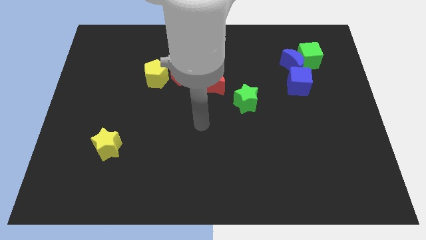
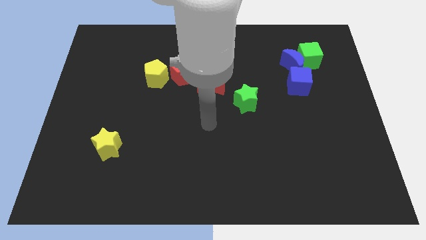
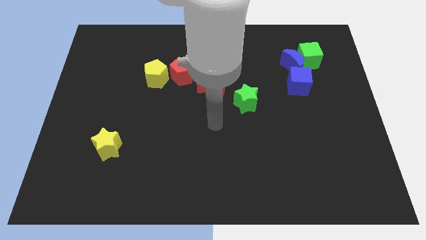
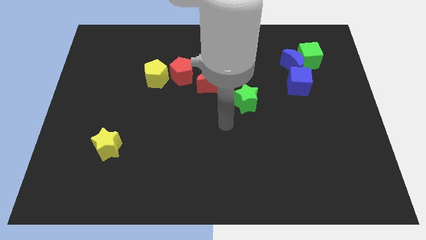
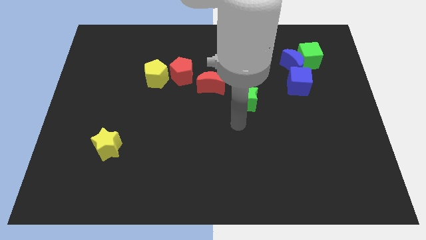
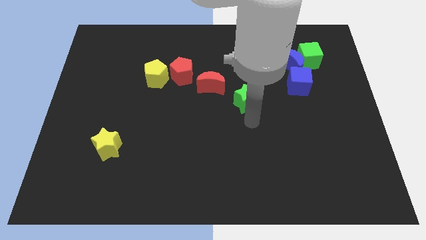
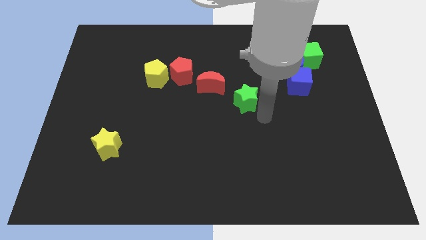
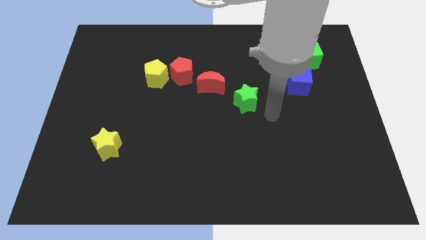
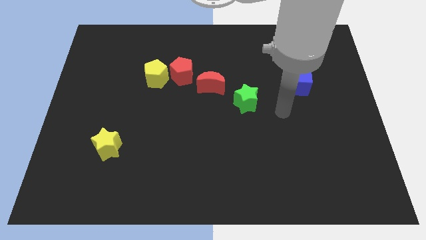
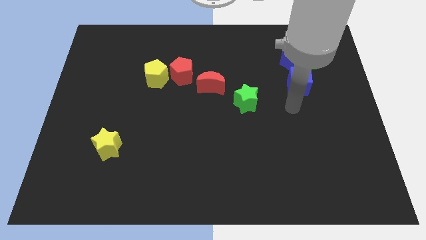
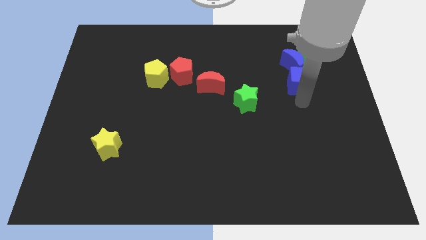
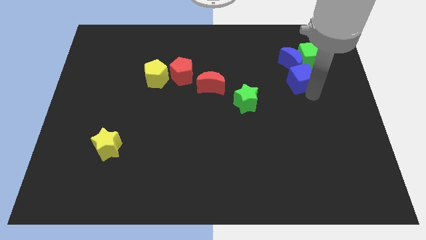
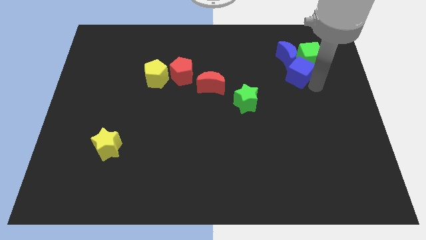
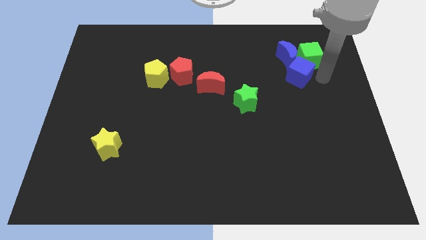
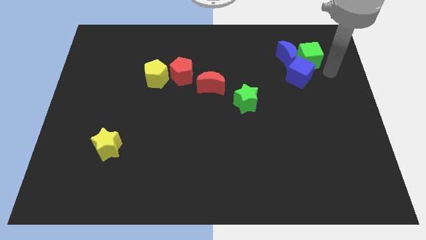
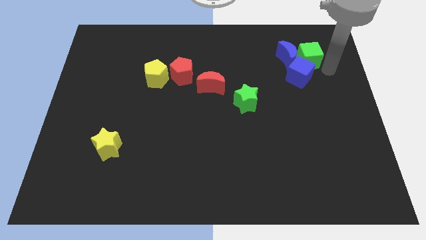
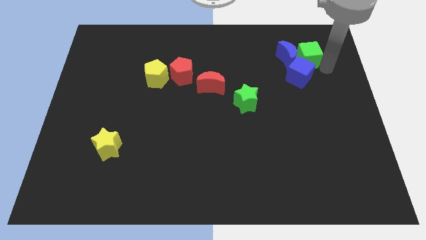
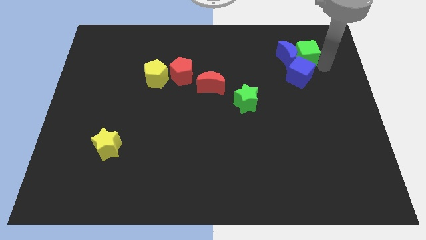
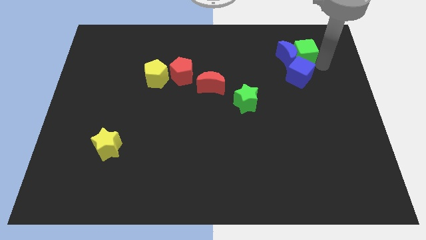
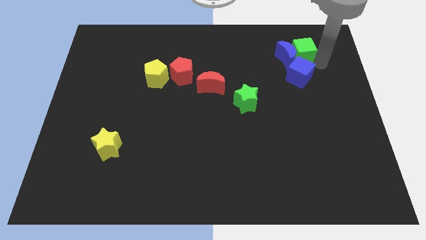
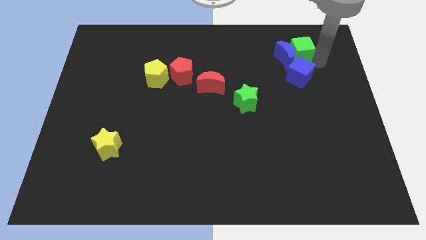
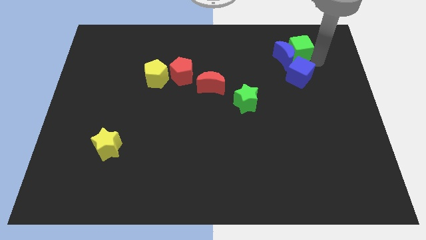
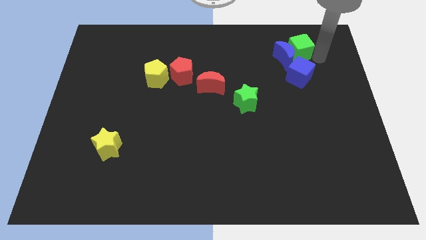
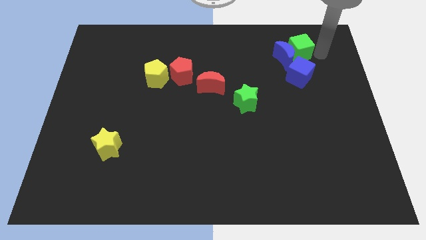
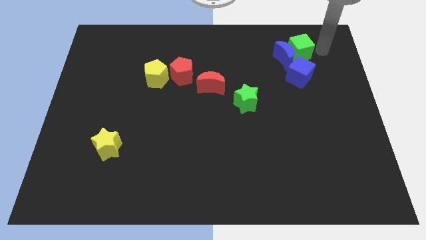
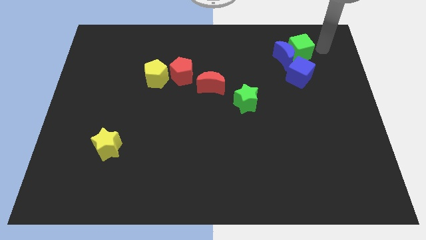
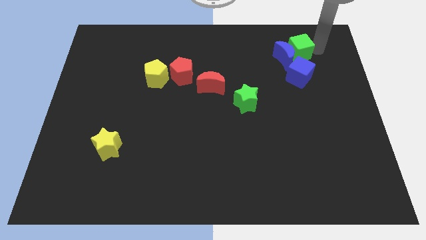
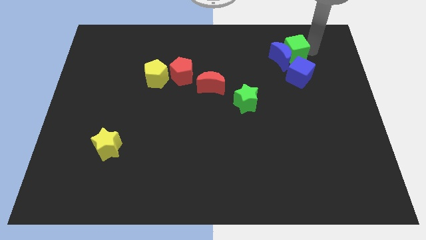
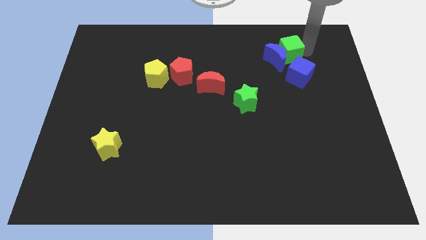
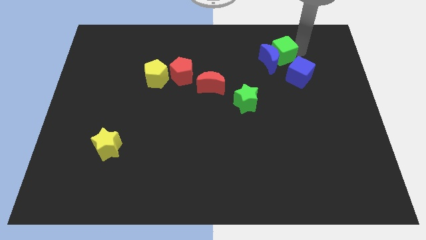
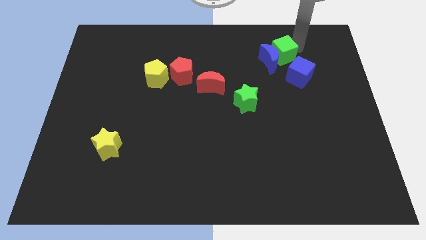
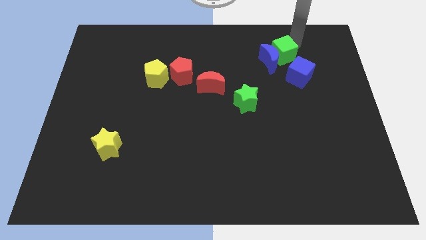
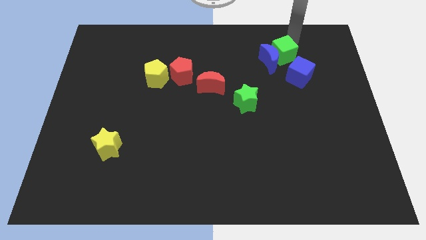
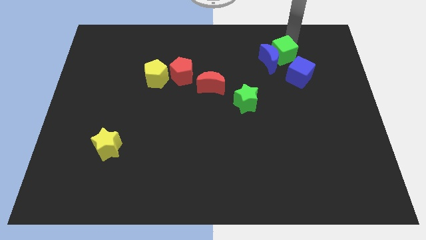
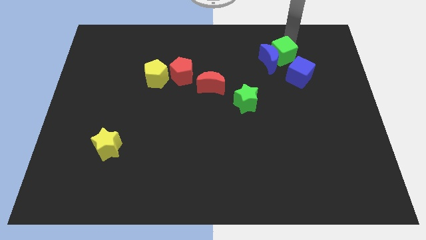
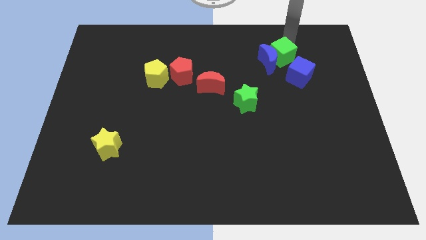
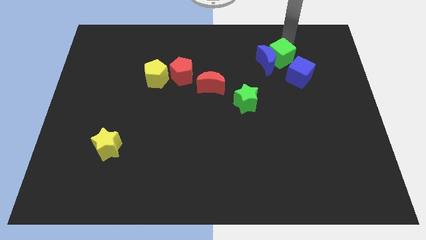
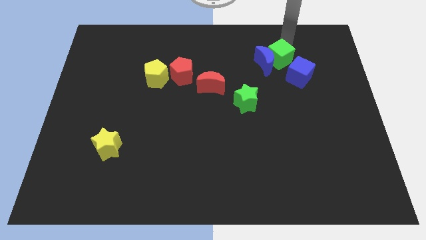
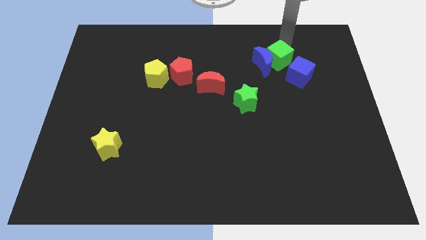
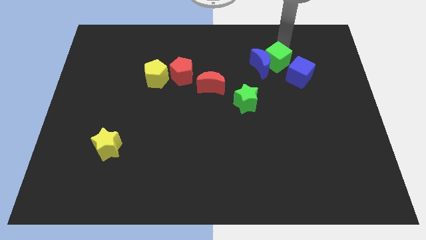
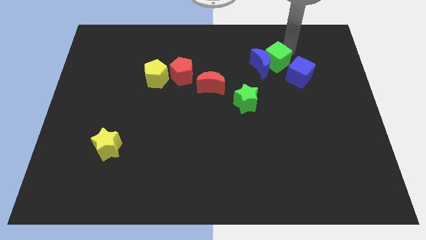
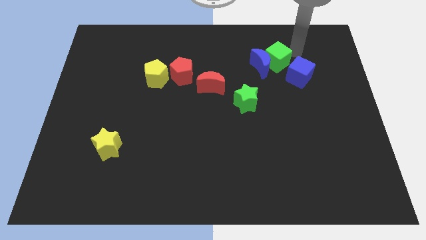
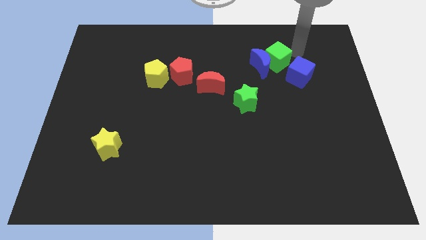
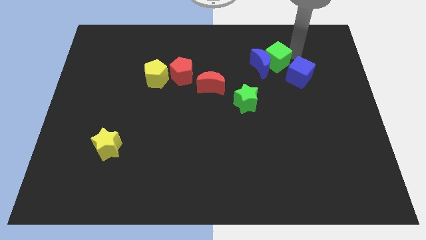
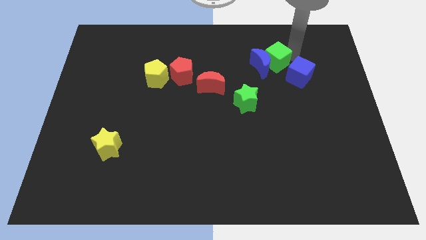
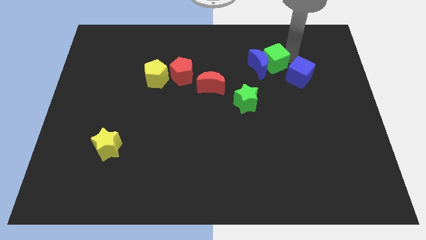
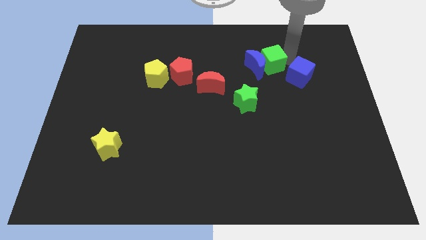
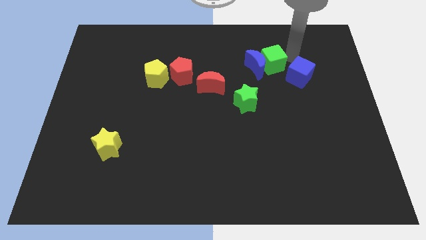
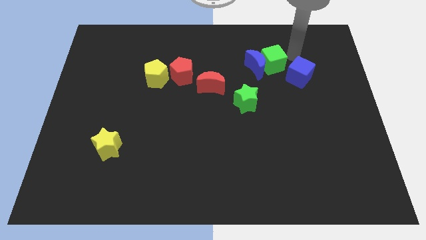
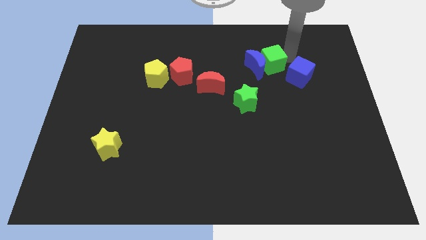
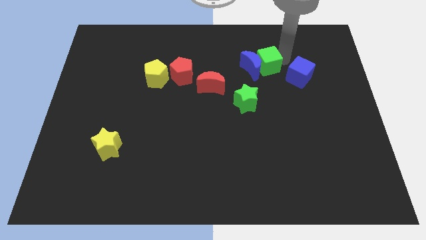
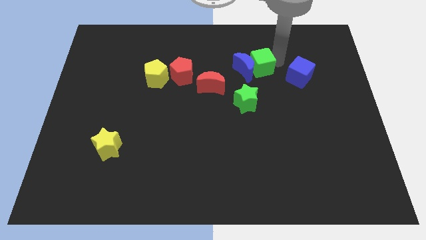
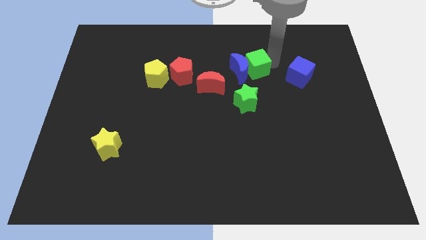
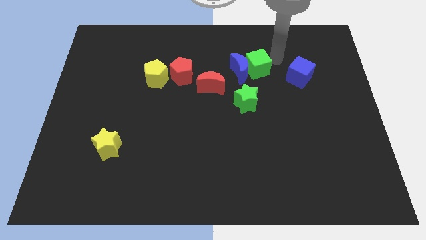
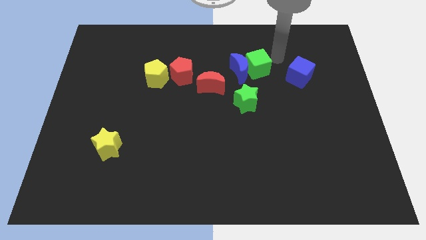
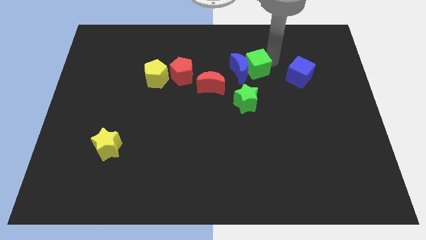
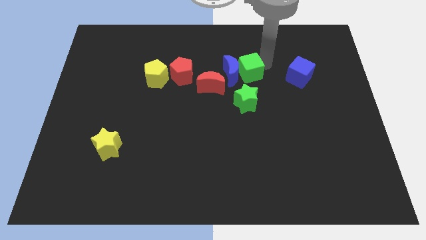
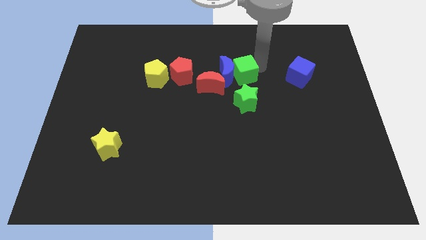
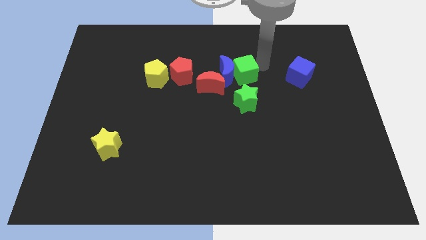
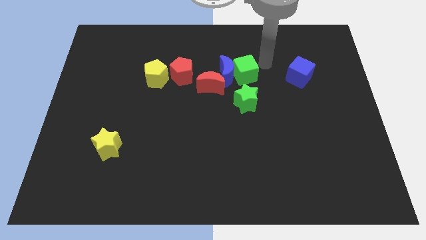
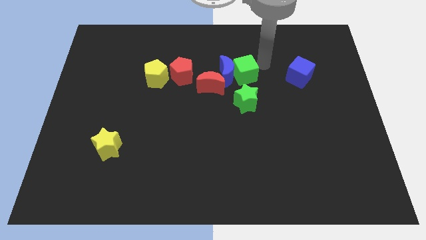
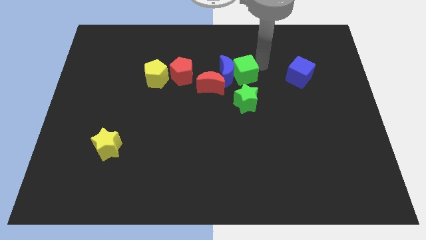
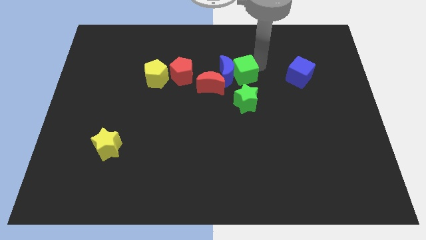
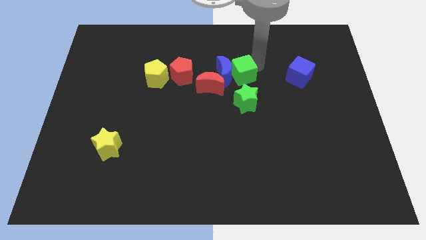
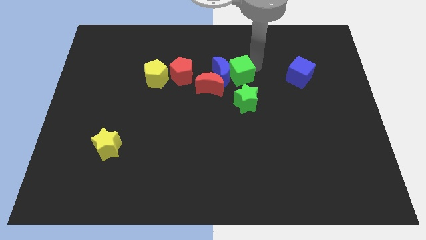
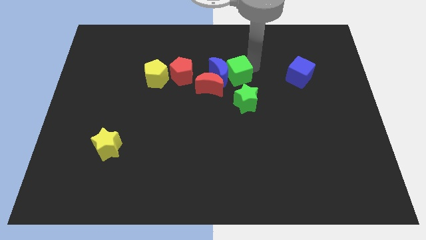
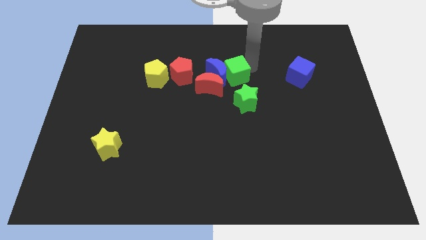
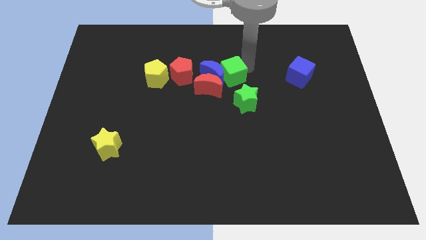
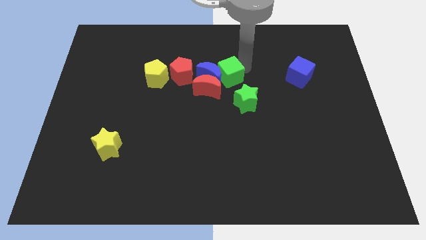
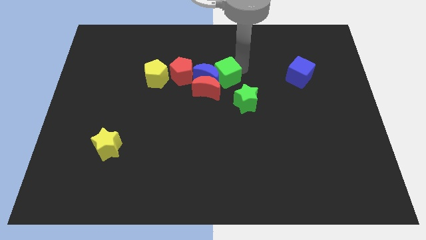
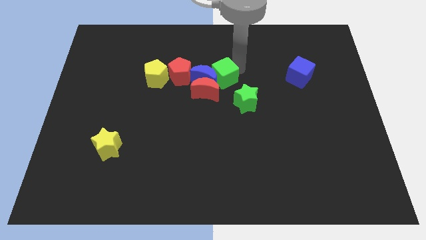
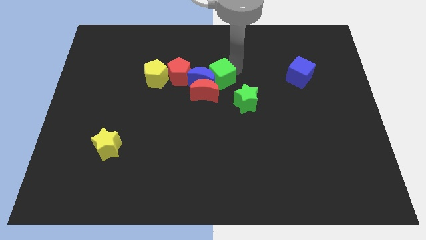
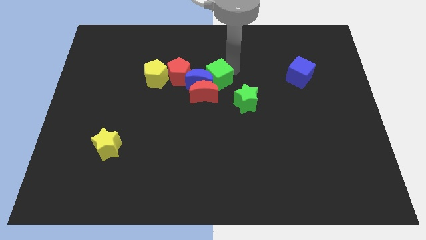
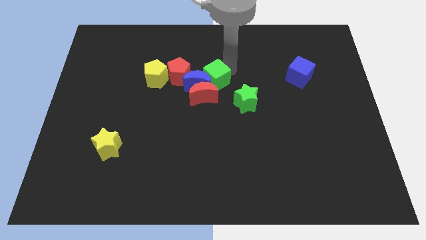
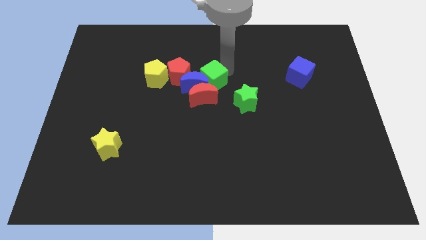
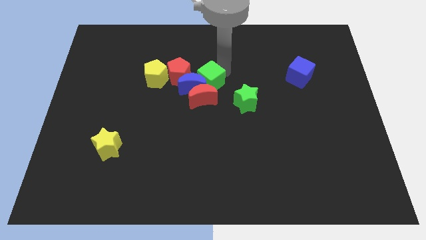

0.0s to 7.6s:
move the green cube close to the red moon

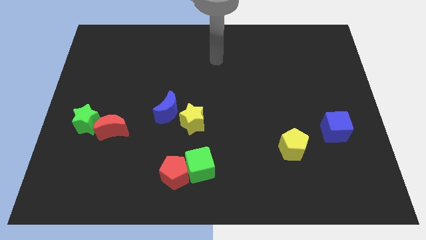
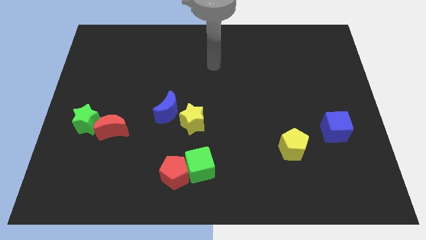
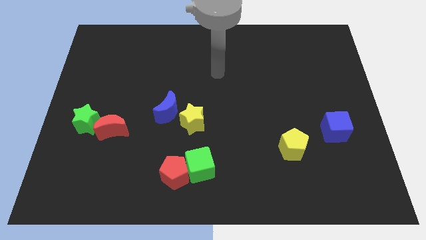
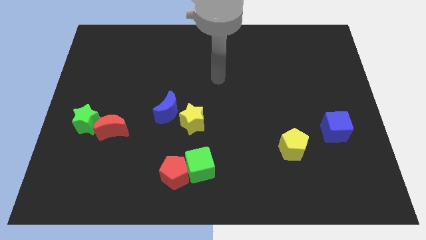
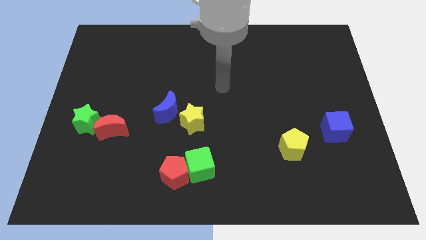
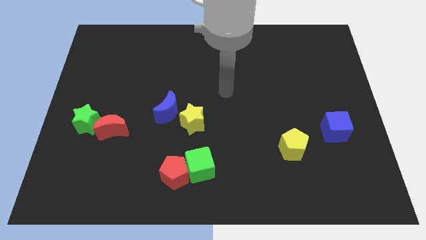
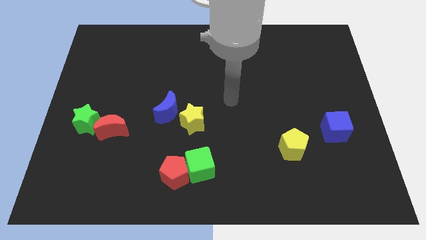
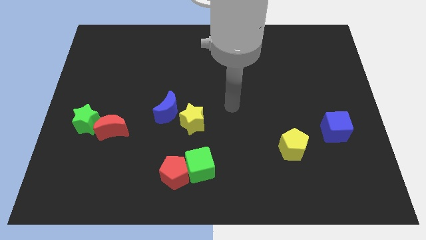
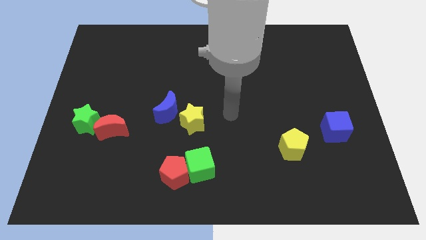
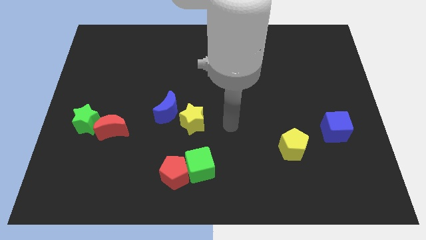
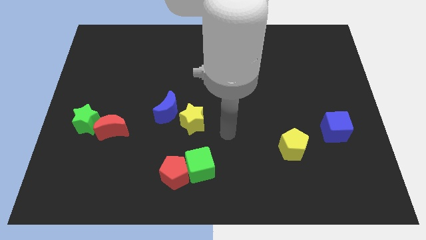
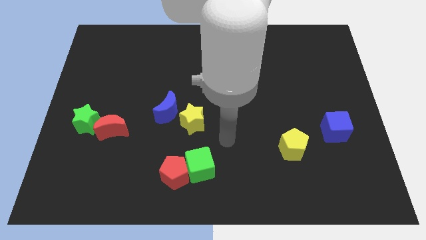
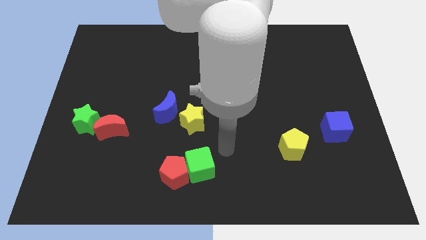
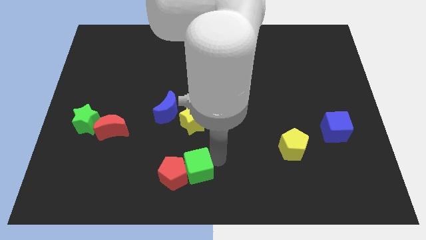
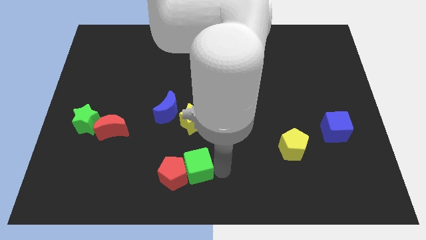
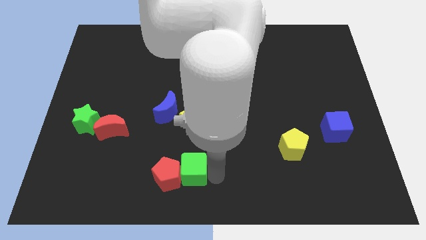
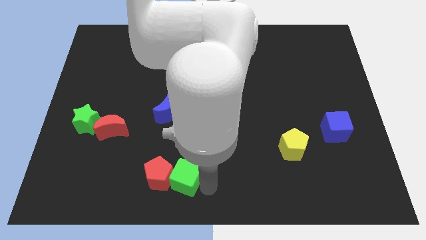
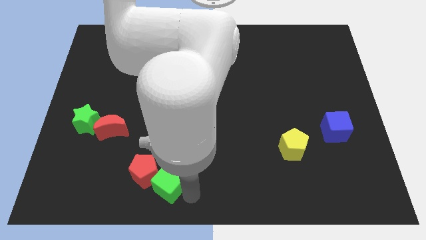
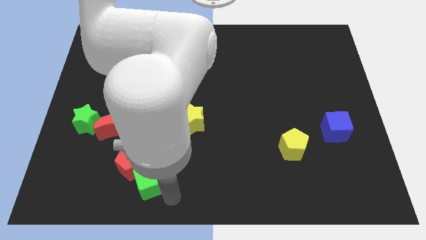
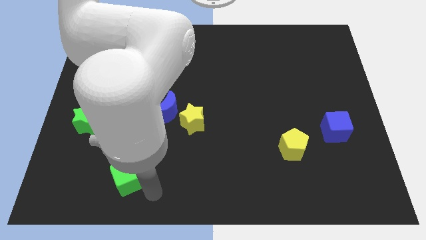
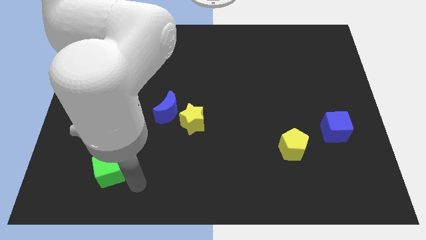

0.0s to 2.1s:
slide the red pentagon close to the red moon
